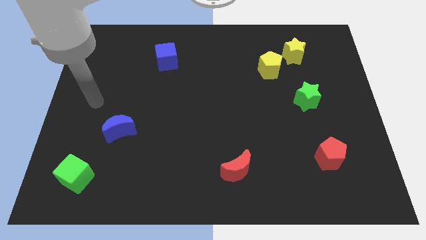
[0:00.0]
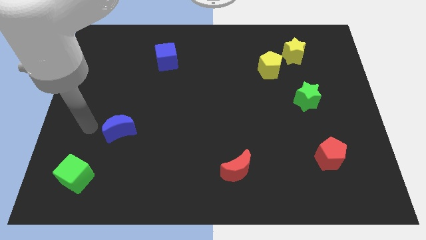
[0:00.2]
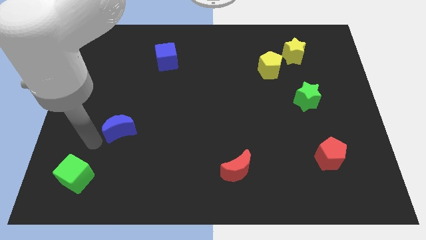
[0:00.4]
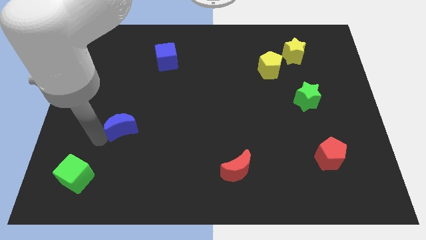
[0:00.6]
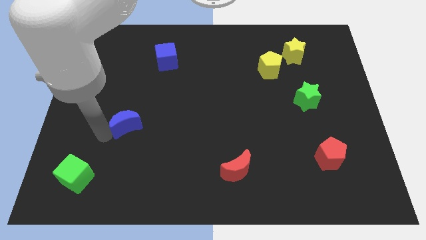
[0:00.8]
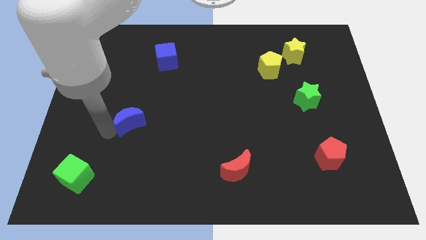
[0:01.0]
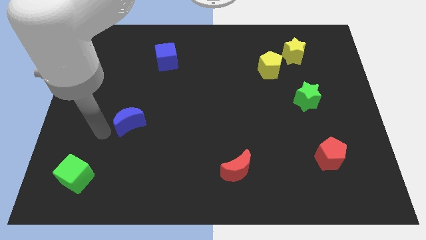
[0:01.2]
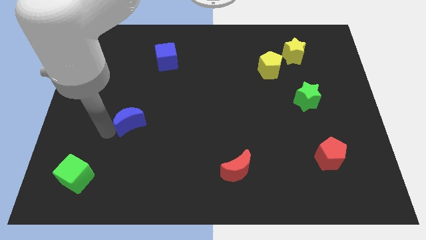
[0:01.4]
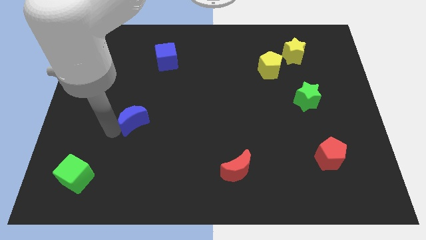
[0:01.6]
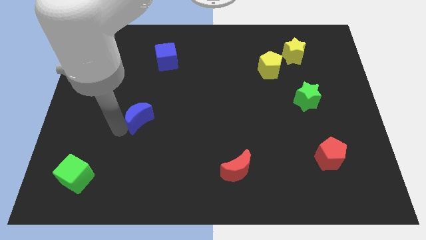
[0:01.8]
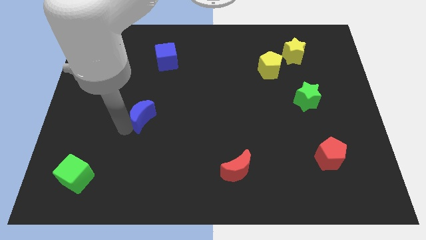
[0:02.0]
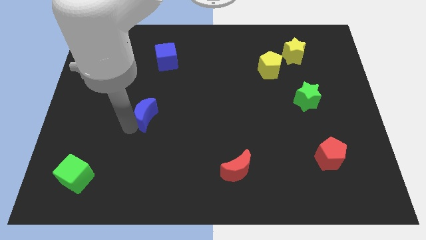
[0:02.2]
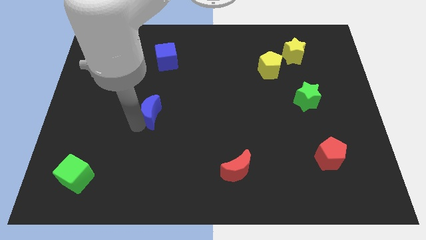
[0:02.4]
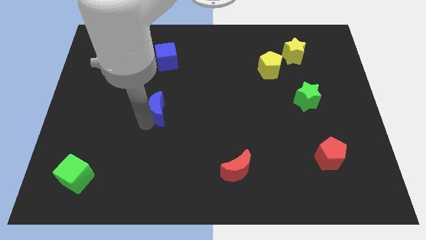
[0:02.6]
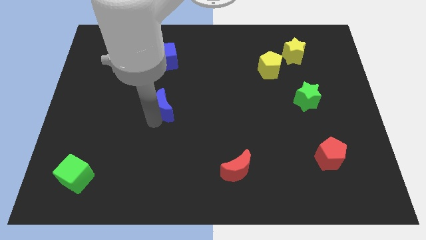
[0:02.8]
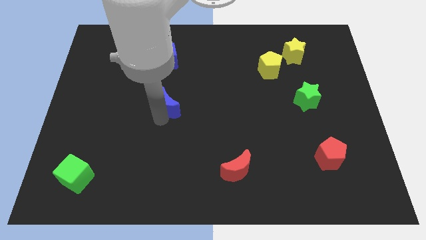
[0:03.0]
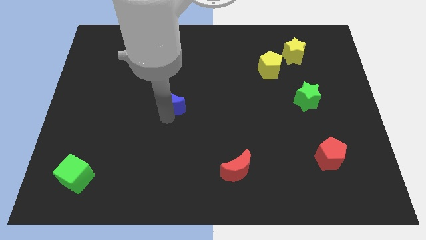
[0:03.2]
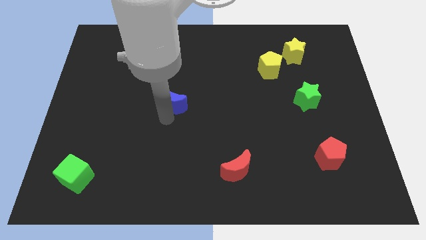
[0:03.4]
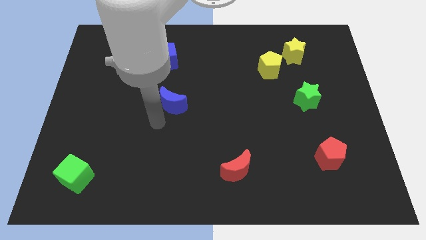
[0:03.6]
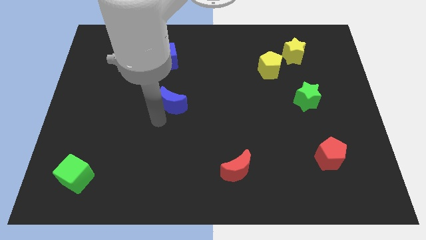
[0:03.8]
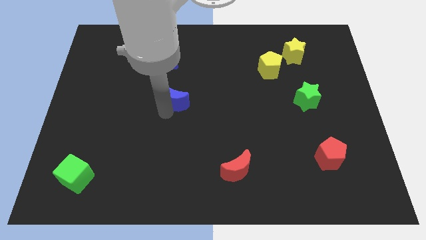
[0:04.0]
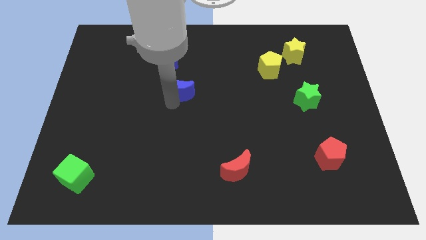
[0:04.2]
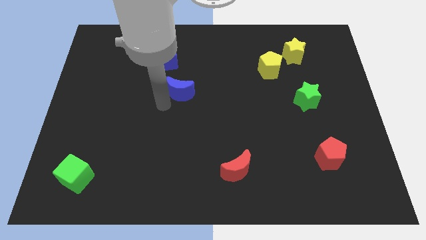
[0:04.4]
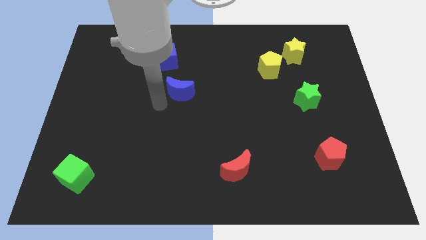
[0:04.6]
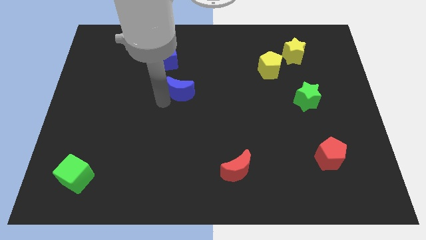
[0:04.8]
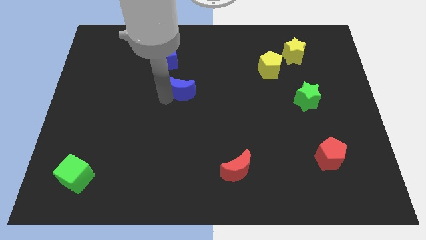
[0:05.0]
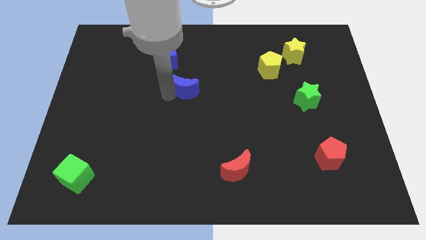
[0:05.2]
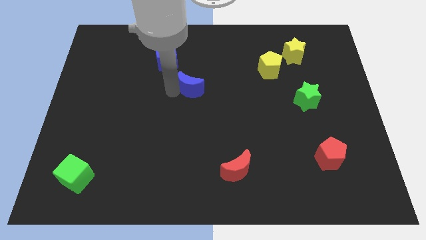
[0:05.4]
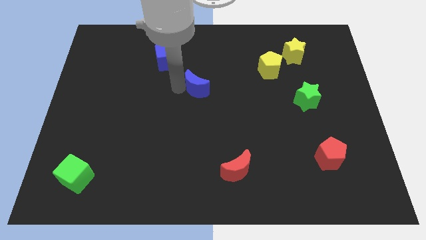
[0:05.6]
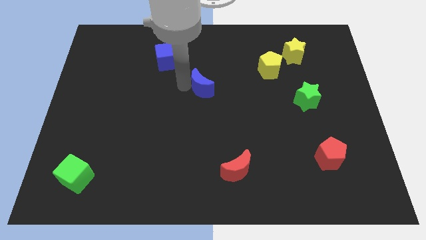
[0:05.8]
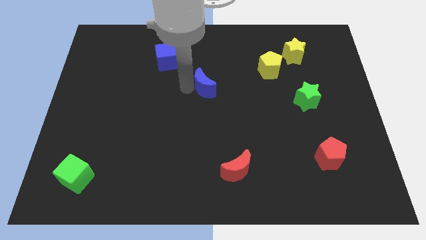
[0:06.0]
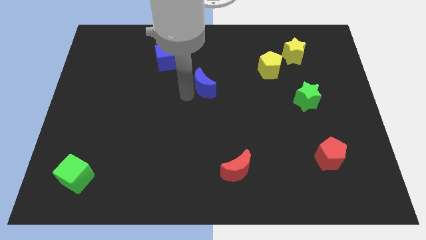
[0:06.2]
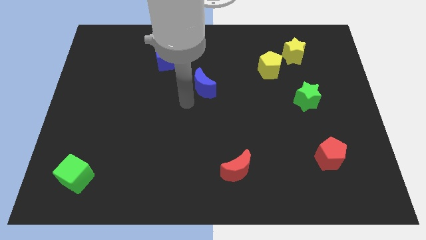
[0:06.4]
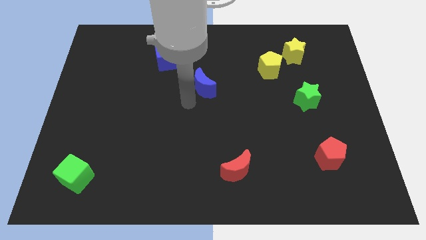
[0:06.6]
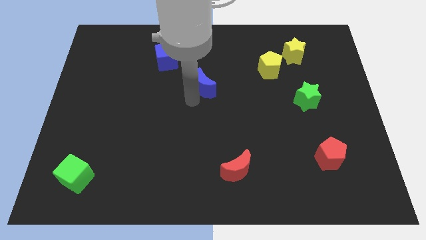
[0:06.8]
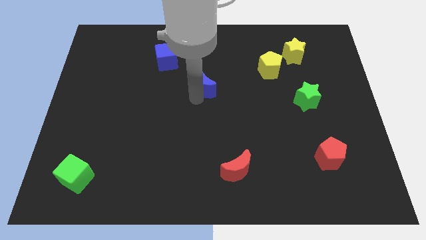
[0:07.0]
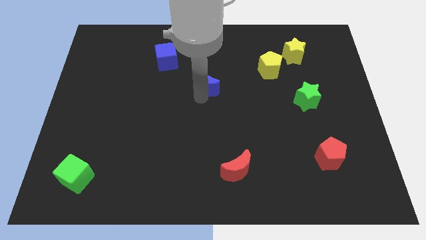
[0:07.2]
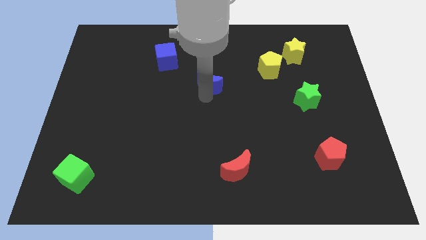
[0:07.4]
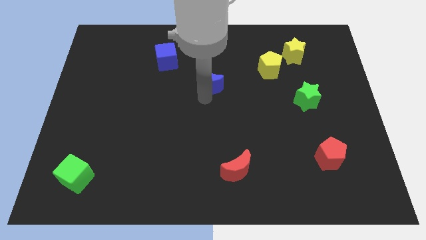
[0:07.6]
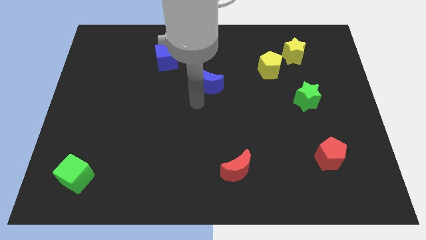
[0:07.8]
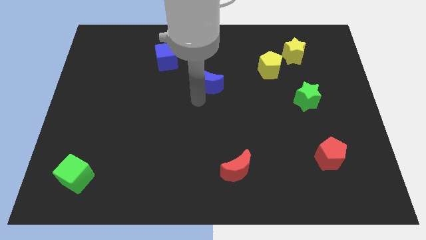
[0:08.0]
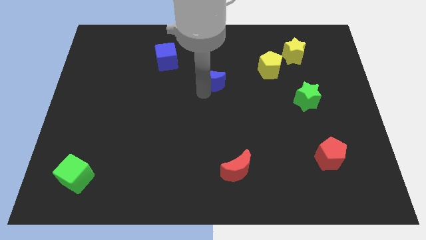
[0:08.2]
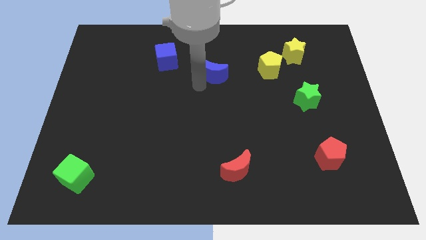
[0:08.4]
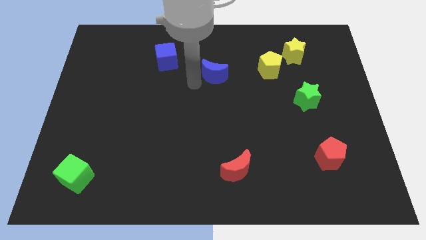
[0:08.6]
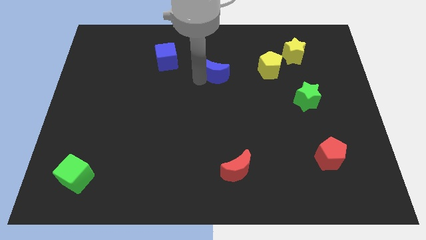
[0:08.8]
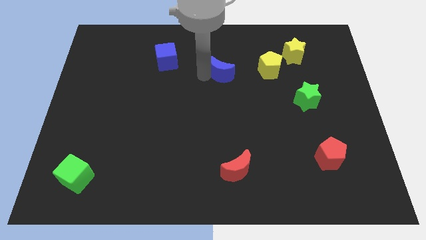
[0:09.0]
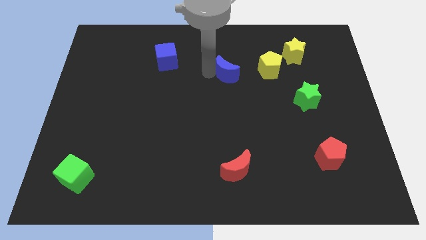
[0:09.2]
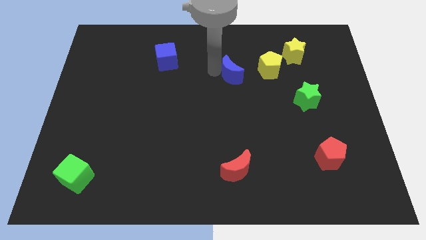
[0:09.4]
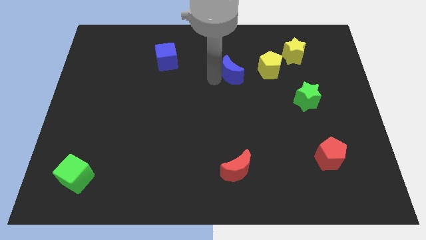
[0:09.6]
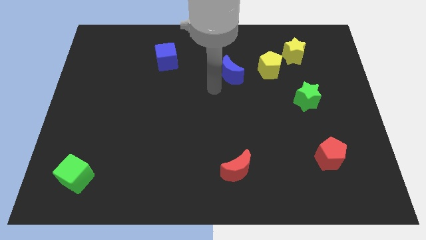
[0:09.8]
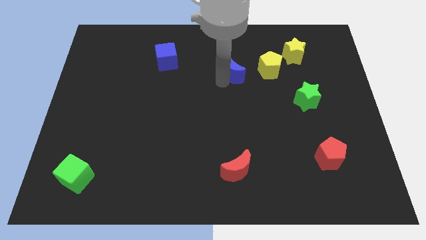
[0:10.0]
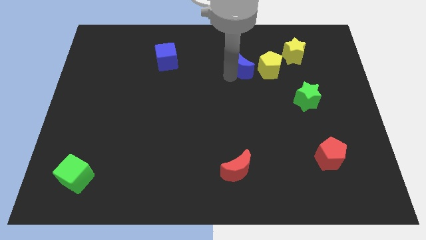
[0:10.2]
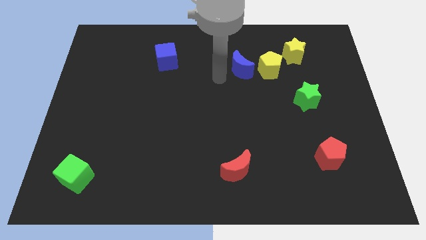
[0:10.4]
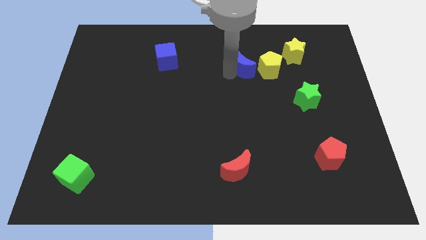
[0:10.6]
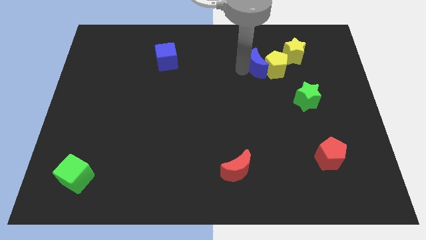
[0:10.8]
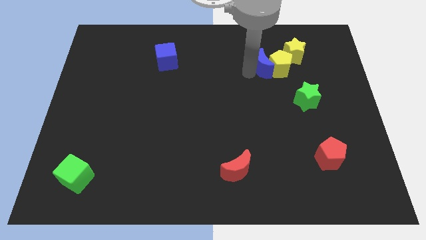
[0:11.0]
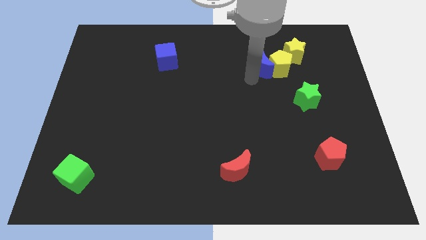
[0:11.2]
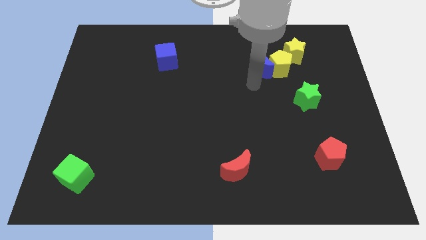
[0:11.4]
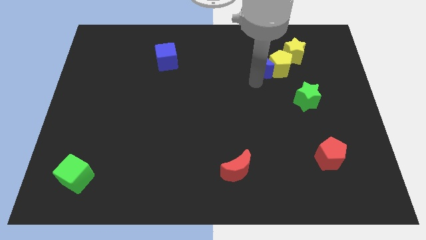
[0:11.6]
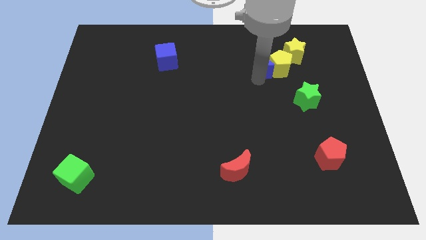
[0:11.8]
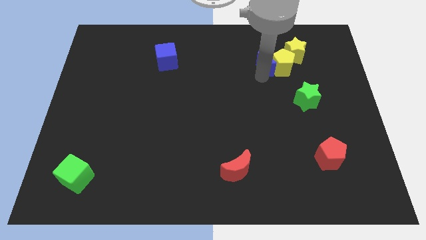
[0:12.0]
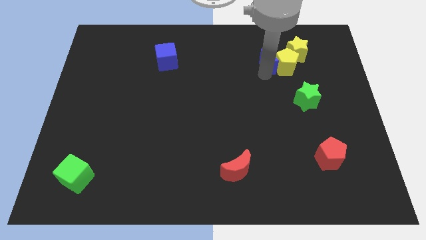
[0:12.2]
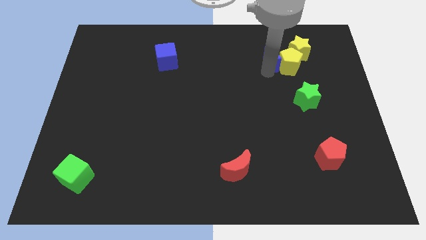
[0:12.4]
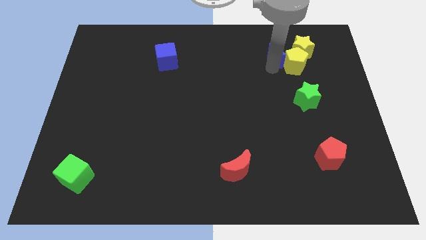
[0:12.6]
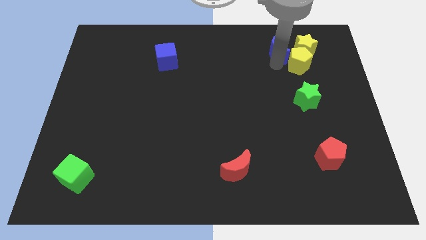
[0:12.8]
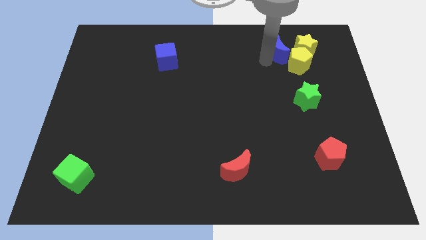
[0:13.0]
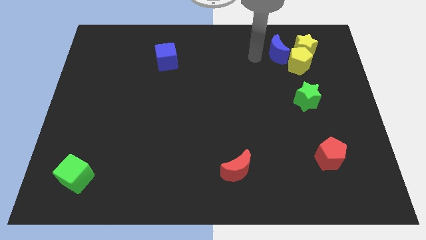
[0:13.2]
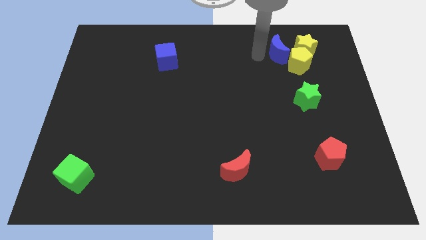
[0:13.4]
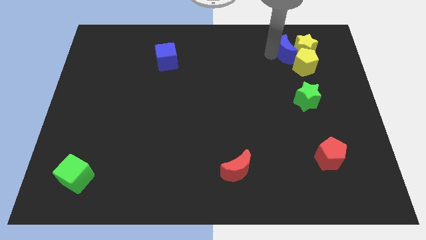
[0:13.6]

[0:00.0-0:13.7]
move the blue moon towards the yellow star

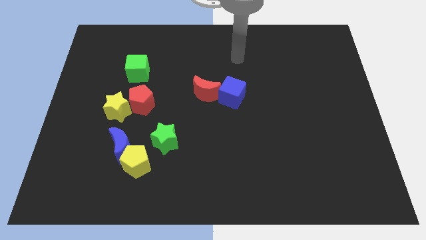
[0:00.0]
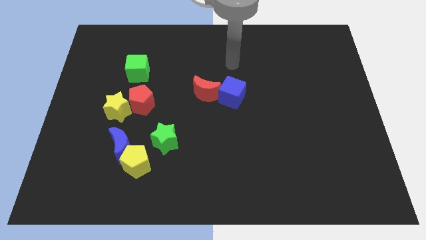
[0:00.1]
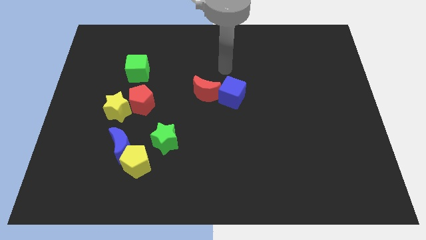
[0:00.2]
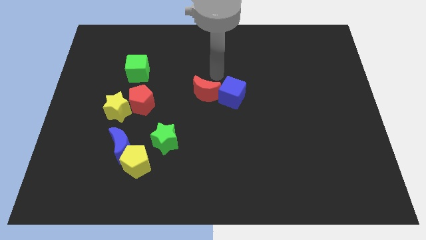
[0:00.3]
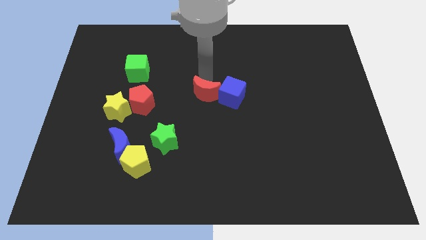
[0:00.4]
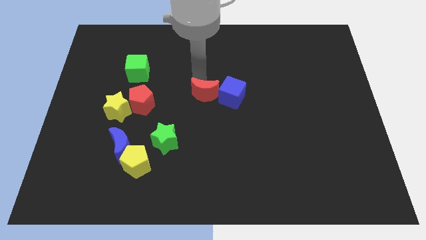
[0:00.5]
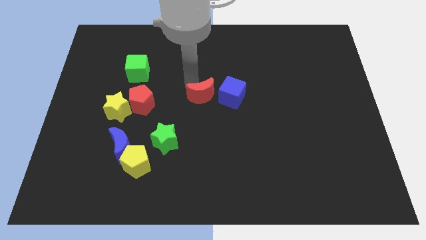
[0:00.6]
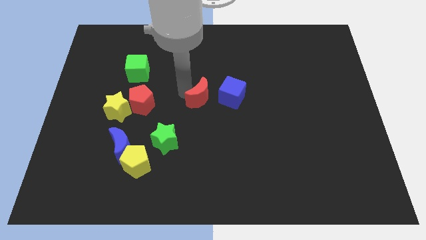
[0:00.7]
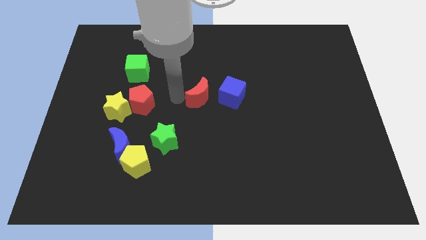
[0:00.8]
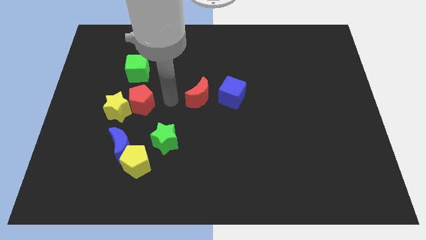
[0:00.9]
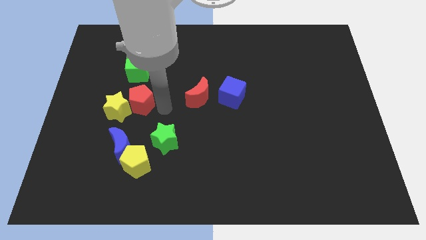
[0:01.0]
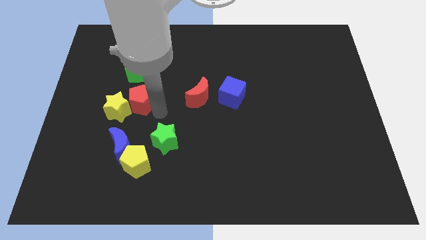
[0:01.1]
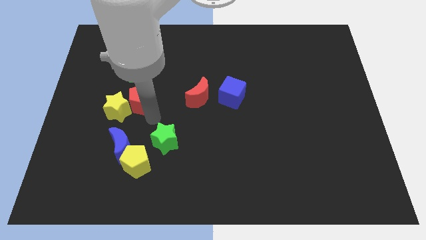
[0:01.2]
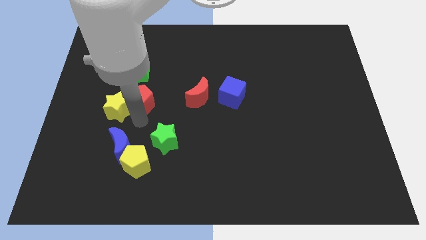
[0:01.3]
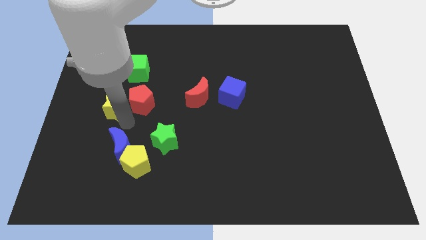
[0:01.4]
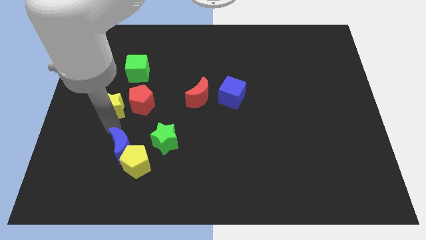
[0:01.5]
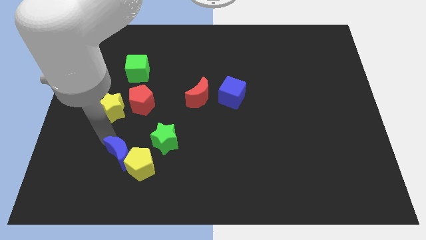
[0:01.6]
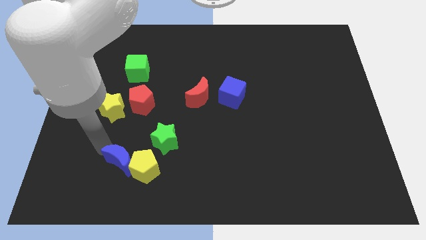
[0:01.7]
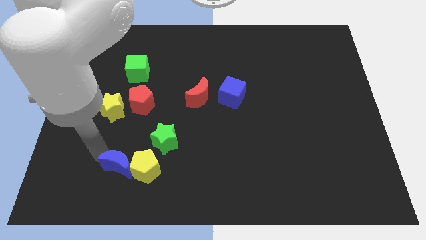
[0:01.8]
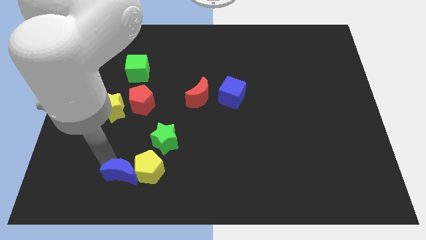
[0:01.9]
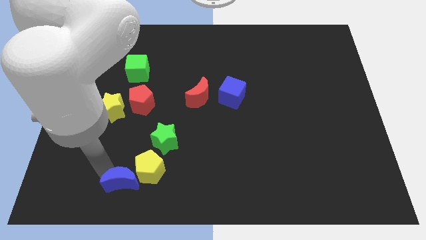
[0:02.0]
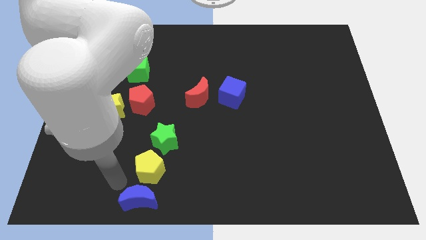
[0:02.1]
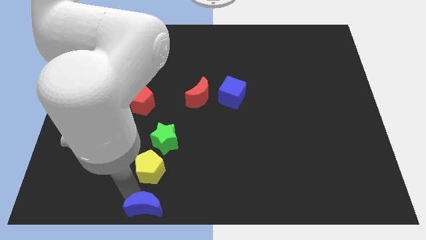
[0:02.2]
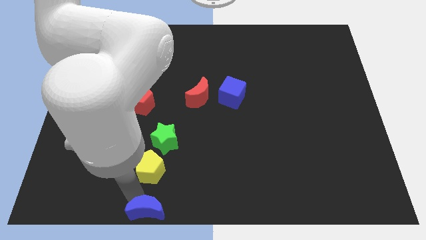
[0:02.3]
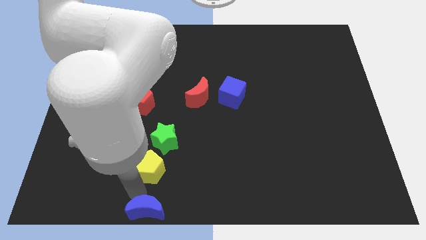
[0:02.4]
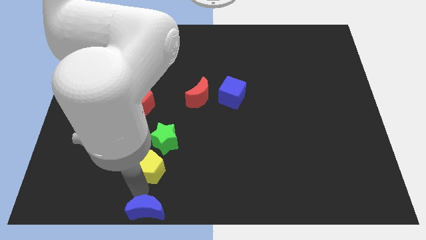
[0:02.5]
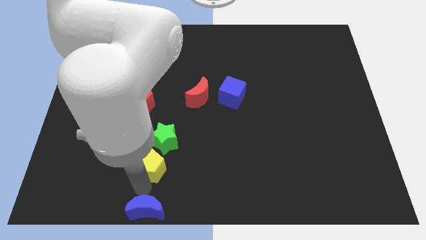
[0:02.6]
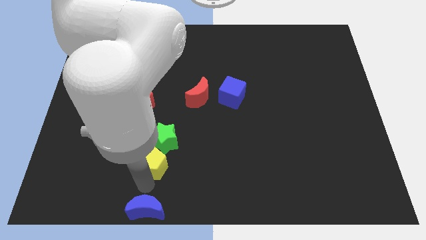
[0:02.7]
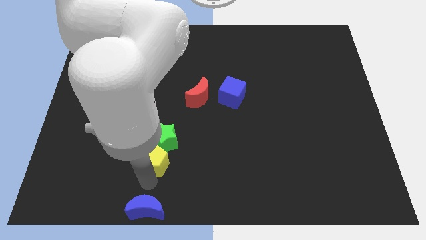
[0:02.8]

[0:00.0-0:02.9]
slide the yellow pentagon to the green star
